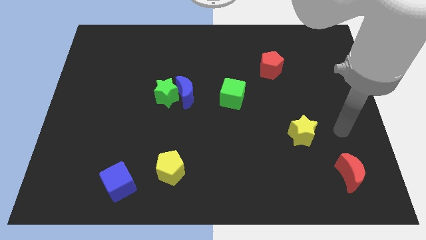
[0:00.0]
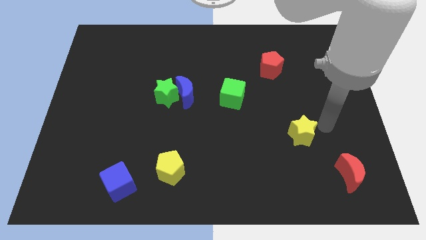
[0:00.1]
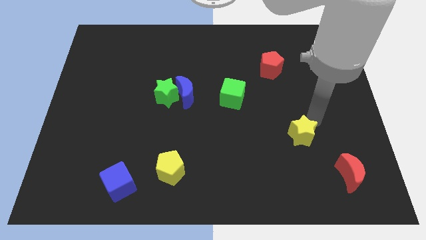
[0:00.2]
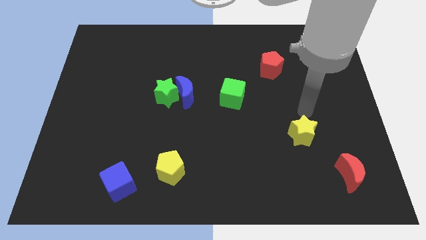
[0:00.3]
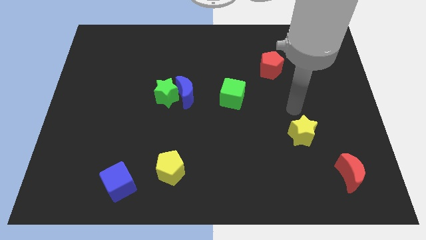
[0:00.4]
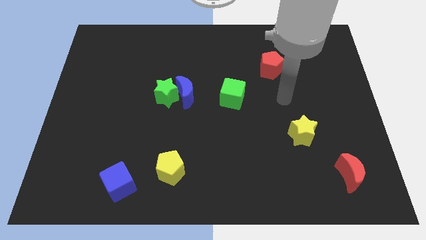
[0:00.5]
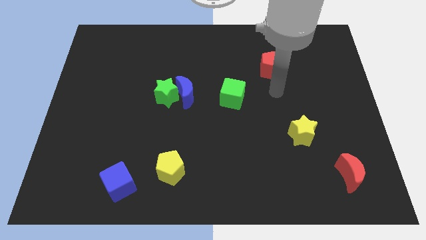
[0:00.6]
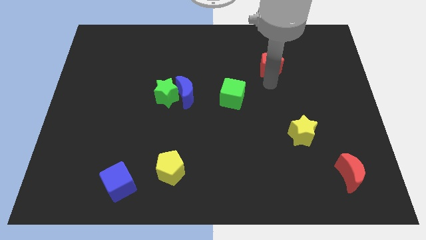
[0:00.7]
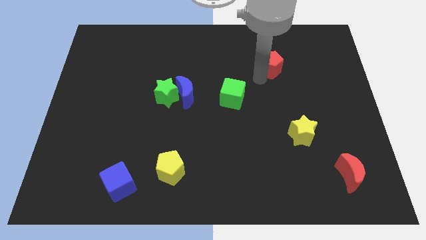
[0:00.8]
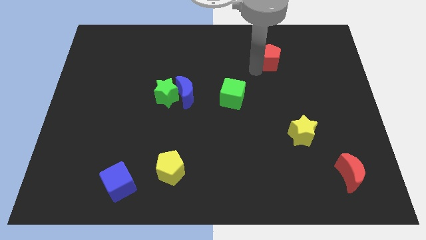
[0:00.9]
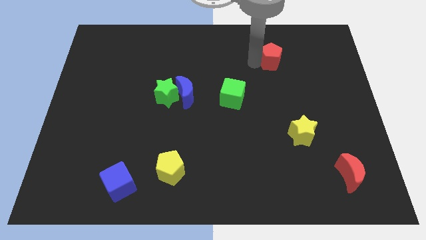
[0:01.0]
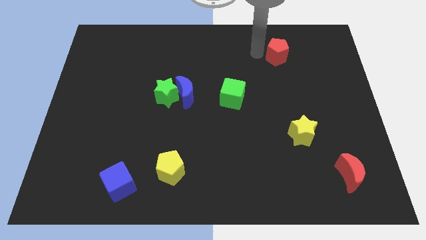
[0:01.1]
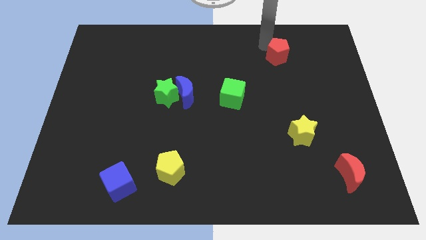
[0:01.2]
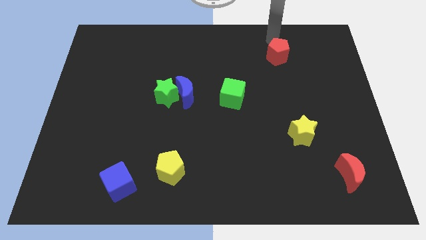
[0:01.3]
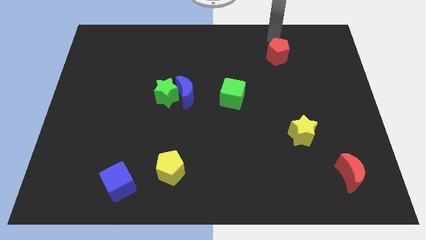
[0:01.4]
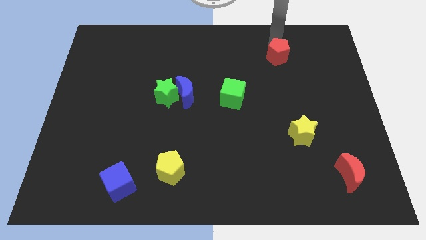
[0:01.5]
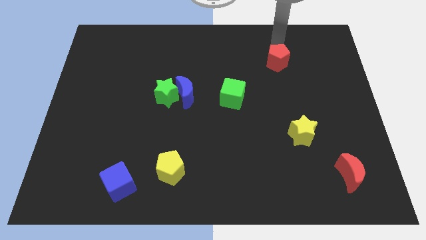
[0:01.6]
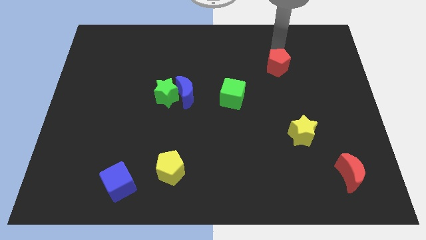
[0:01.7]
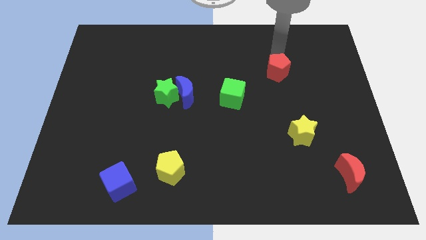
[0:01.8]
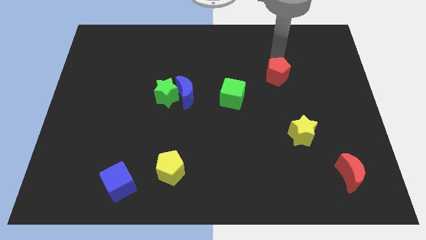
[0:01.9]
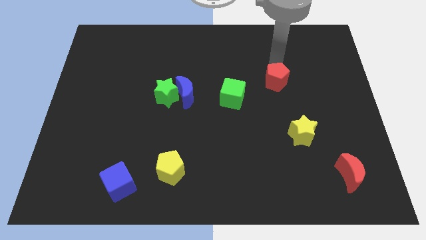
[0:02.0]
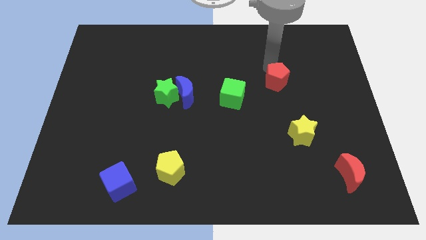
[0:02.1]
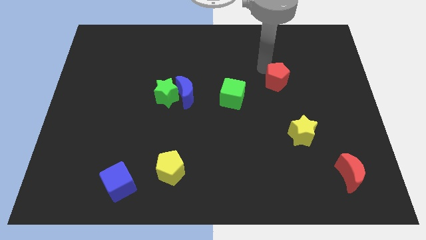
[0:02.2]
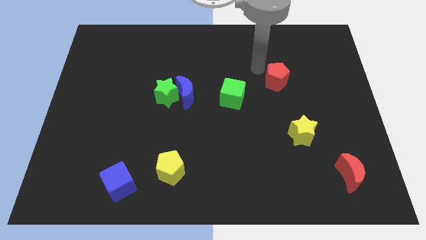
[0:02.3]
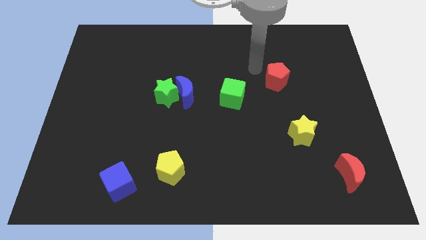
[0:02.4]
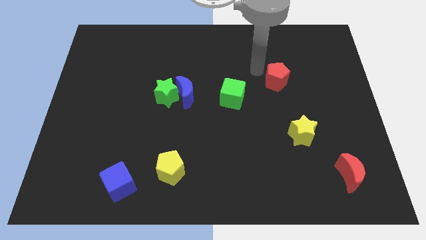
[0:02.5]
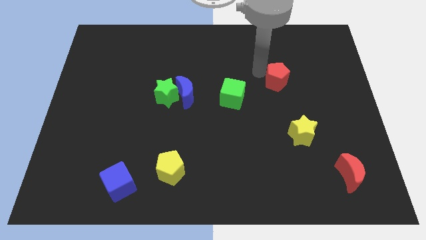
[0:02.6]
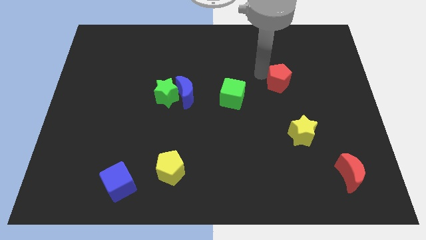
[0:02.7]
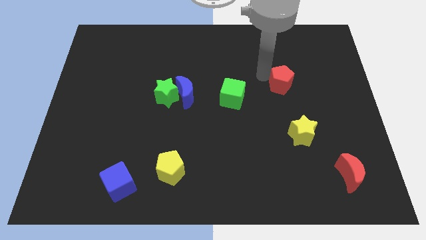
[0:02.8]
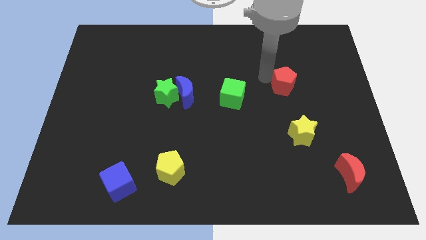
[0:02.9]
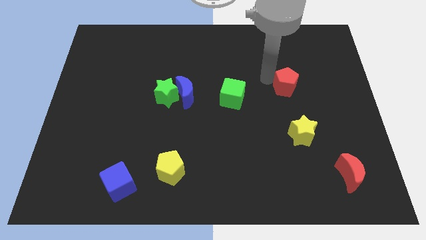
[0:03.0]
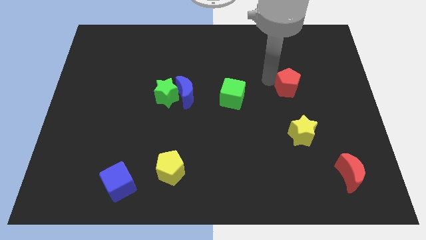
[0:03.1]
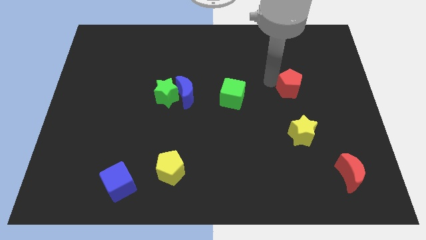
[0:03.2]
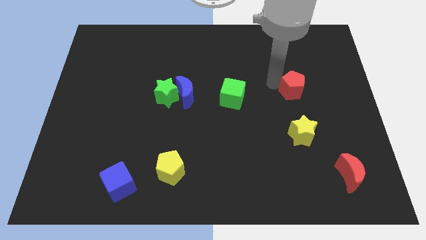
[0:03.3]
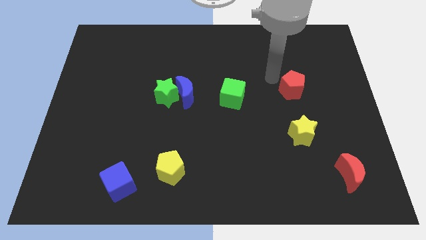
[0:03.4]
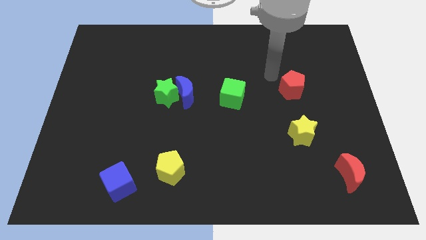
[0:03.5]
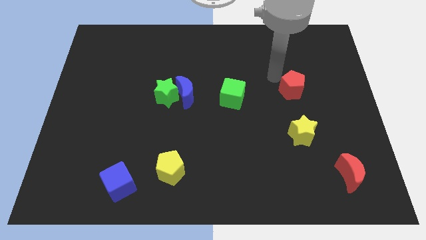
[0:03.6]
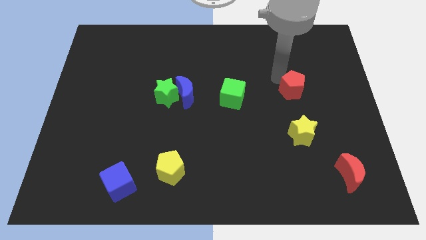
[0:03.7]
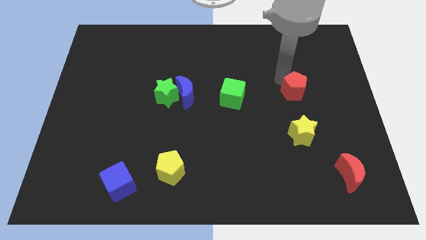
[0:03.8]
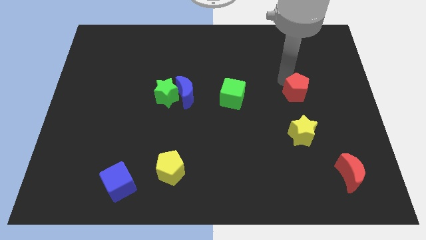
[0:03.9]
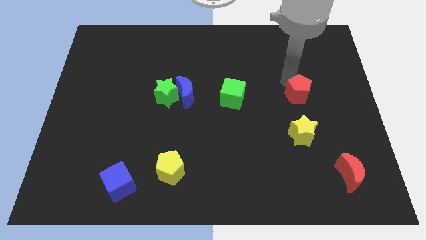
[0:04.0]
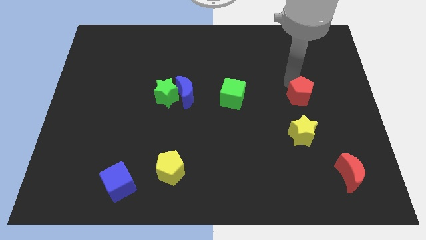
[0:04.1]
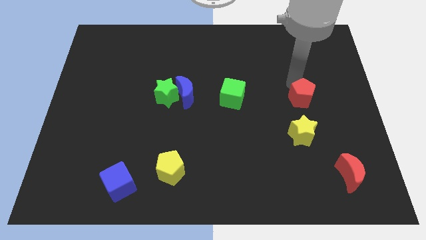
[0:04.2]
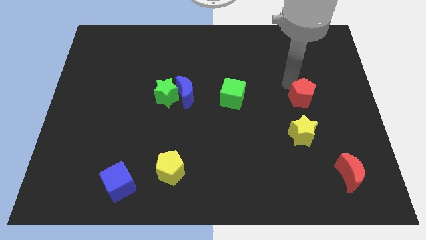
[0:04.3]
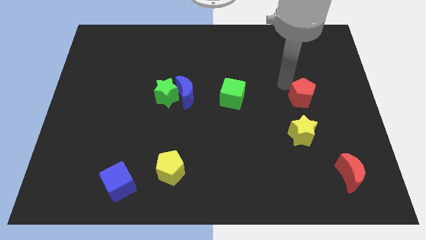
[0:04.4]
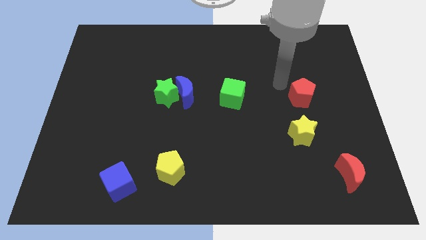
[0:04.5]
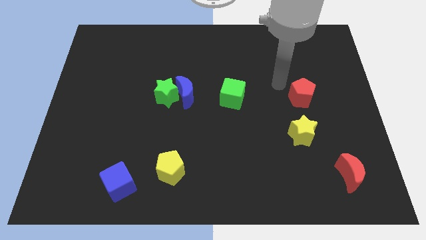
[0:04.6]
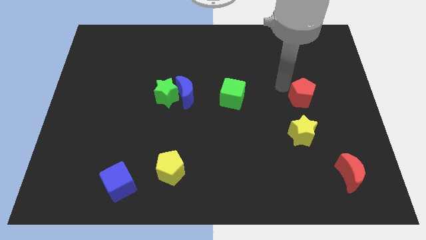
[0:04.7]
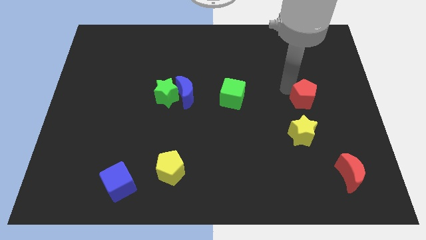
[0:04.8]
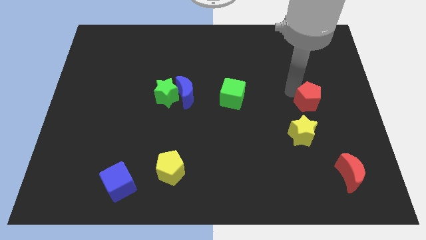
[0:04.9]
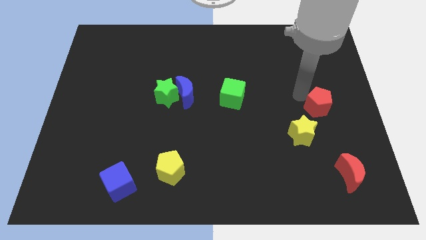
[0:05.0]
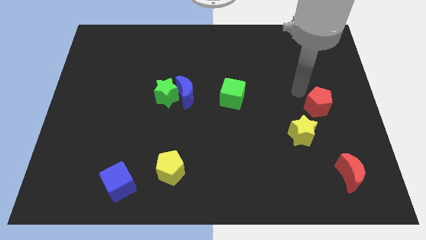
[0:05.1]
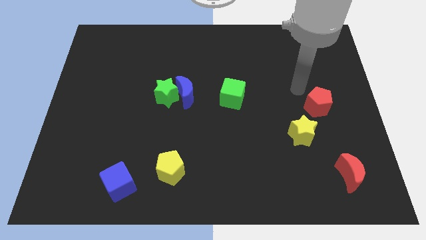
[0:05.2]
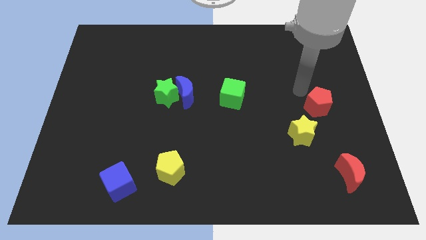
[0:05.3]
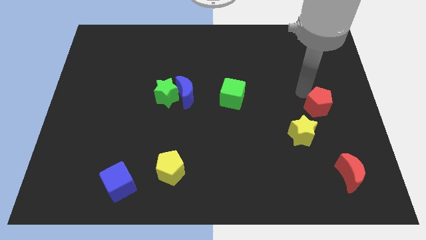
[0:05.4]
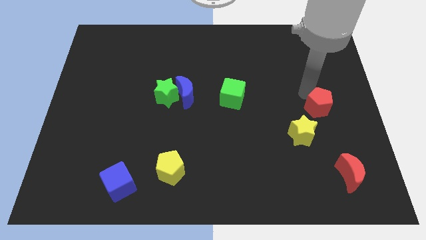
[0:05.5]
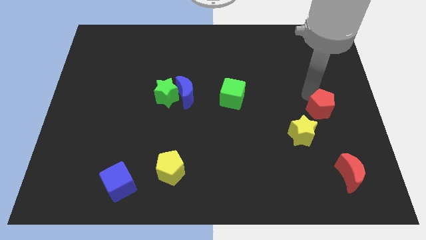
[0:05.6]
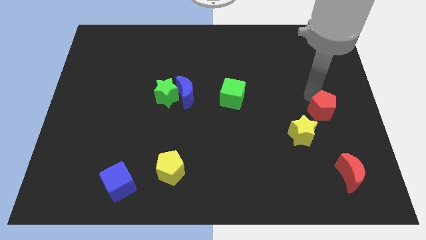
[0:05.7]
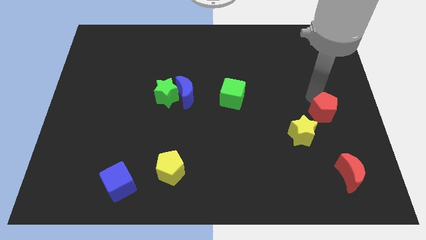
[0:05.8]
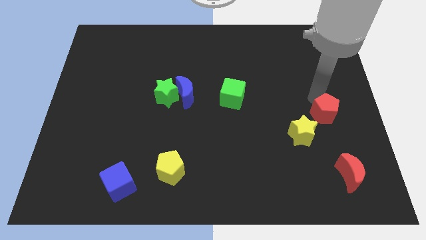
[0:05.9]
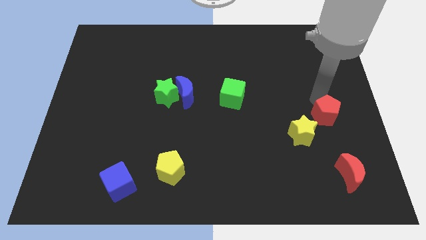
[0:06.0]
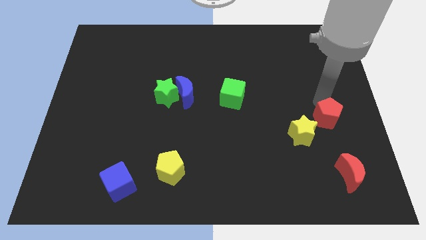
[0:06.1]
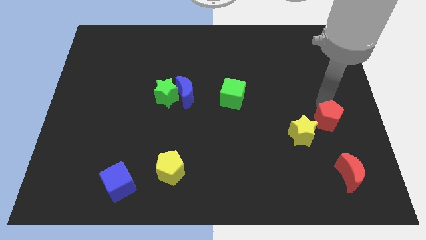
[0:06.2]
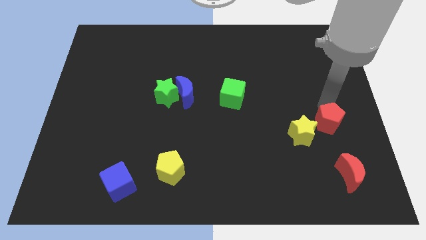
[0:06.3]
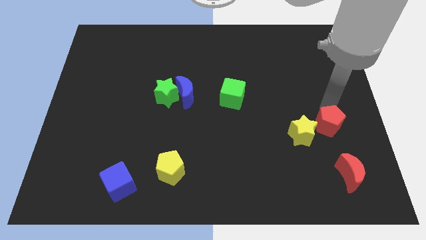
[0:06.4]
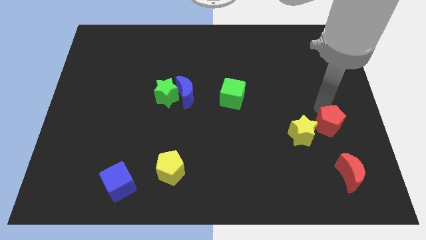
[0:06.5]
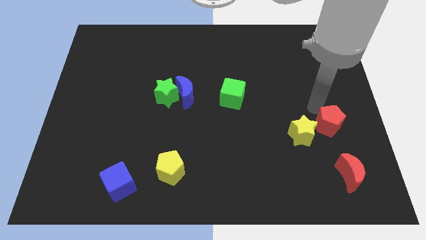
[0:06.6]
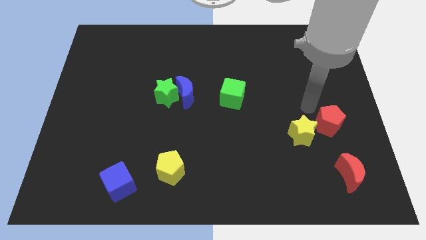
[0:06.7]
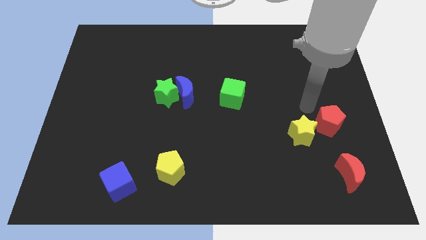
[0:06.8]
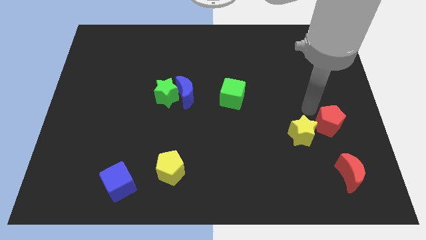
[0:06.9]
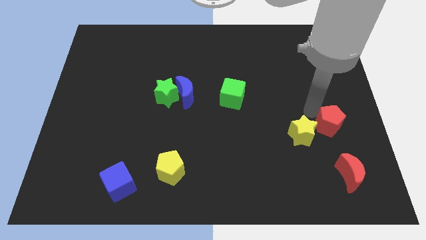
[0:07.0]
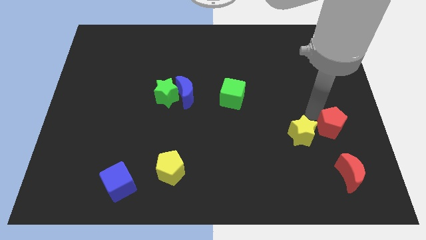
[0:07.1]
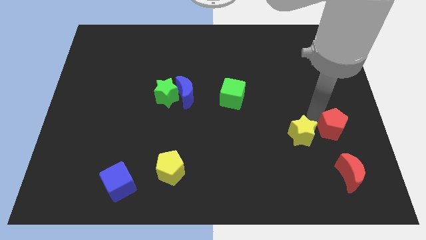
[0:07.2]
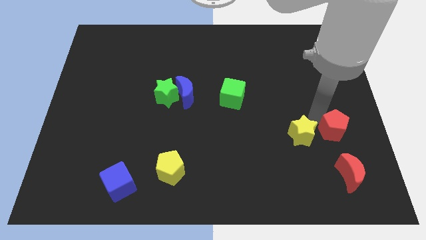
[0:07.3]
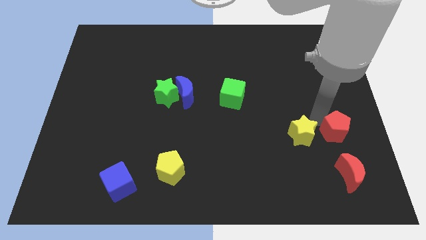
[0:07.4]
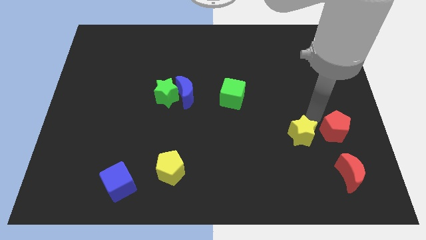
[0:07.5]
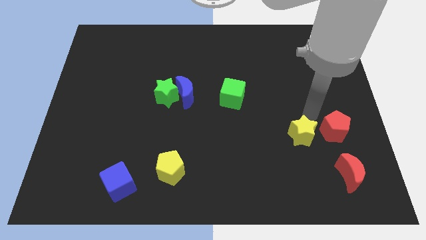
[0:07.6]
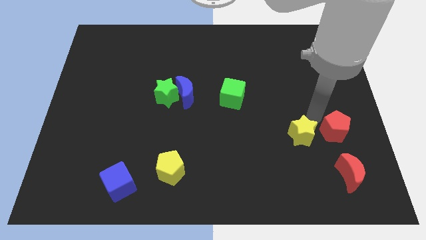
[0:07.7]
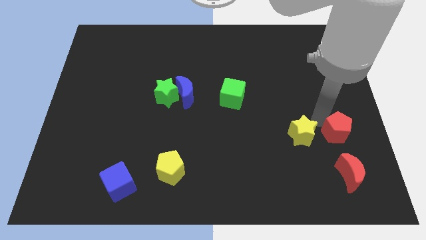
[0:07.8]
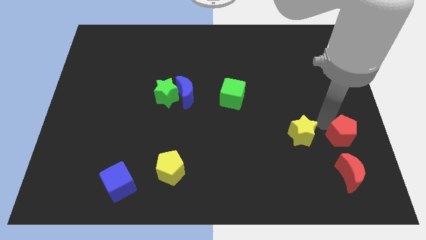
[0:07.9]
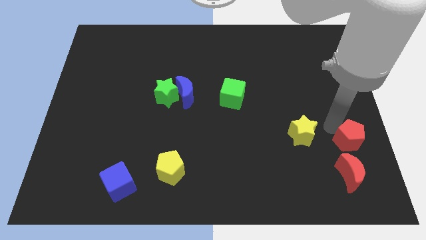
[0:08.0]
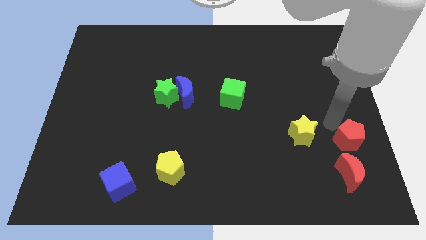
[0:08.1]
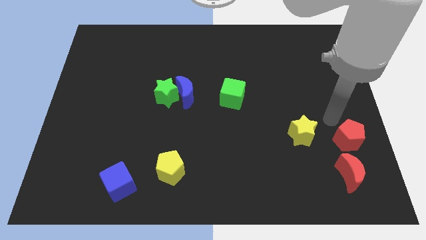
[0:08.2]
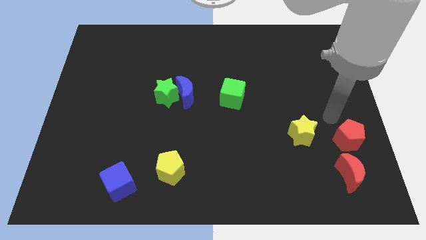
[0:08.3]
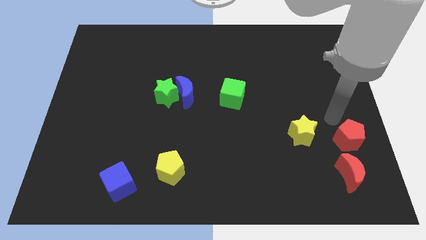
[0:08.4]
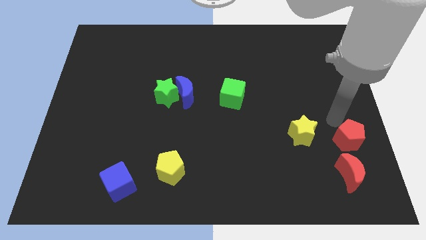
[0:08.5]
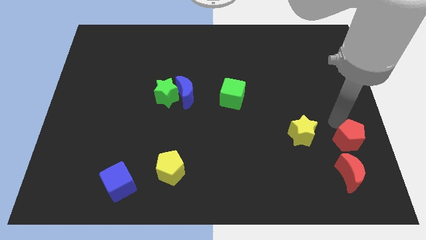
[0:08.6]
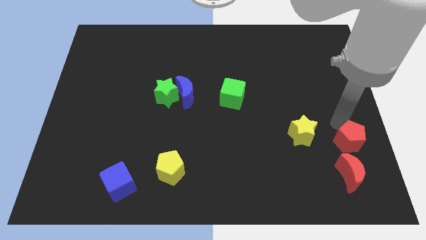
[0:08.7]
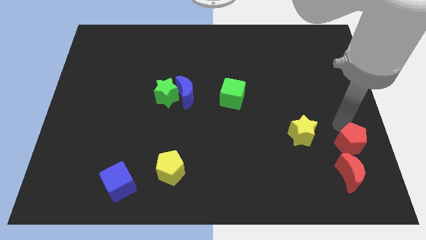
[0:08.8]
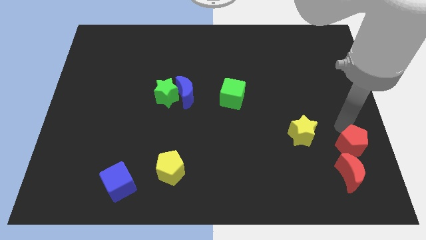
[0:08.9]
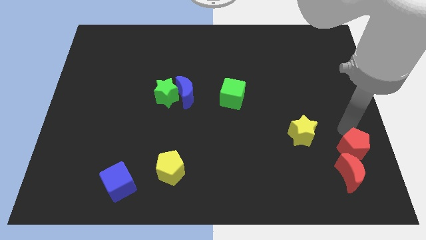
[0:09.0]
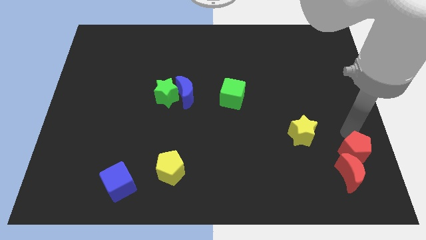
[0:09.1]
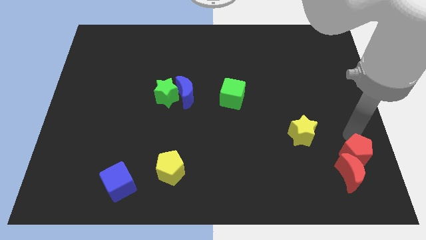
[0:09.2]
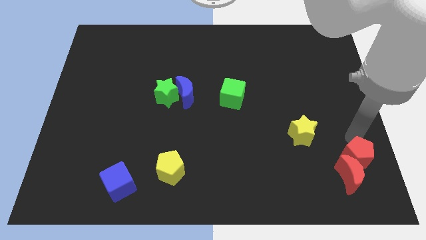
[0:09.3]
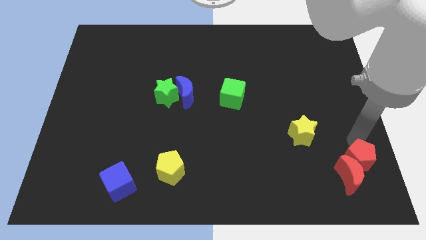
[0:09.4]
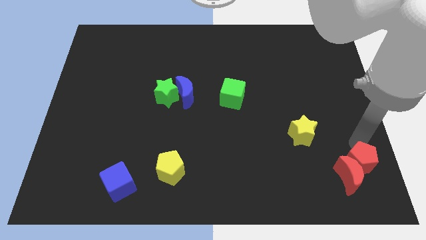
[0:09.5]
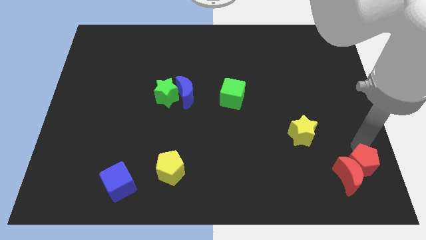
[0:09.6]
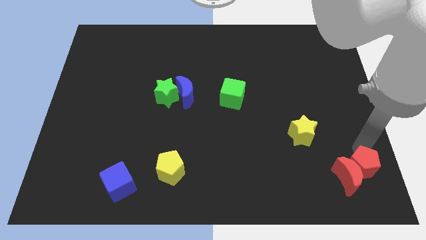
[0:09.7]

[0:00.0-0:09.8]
slide the red pentagon to the bottom right of the board
